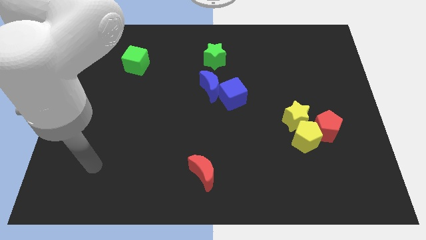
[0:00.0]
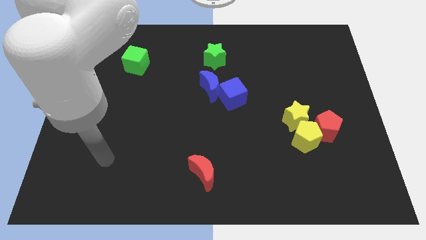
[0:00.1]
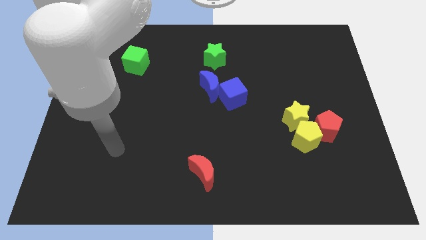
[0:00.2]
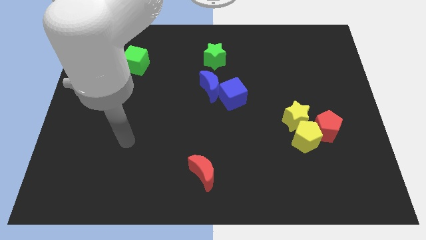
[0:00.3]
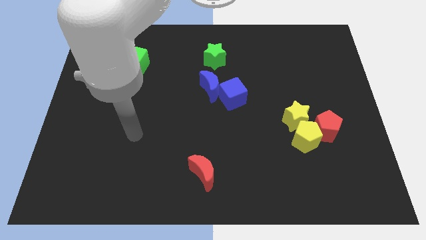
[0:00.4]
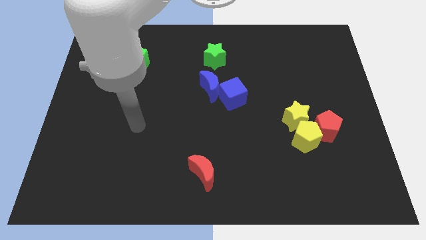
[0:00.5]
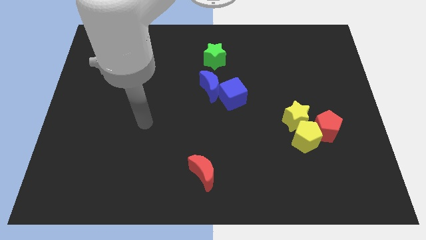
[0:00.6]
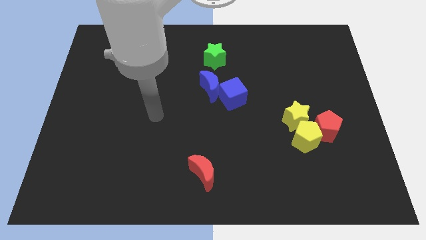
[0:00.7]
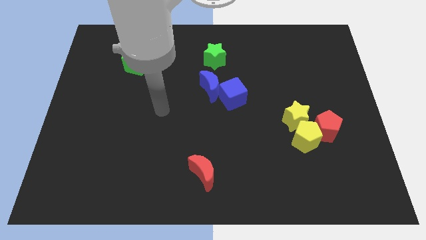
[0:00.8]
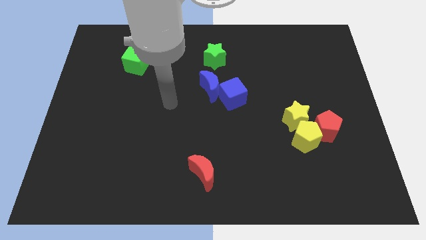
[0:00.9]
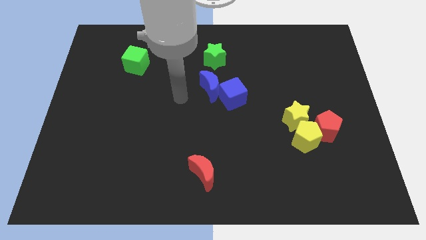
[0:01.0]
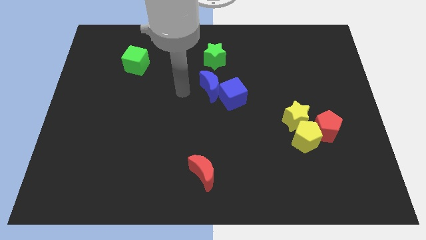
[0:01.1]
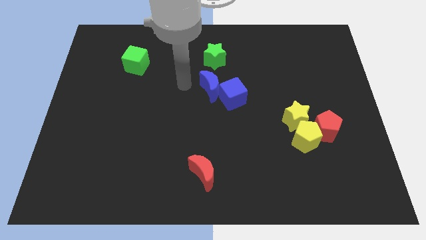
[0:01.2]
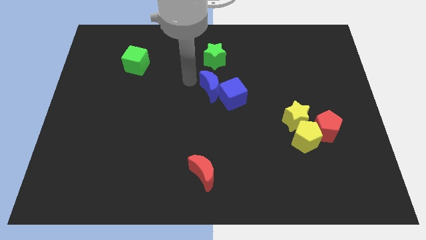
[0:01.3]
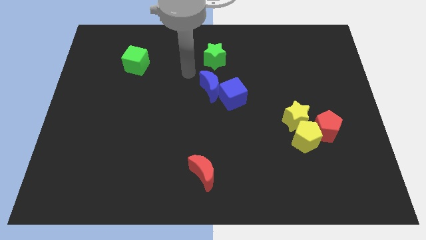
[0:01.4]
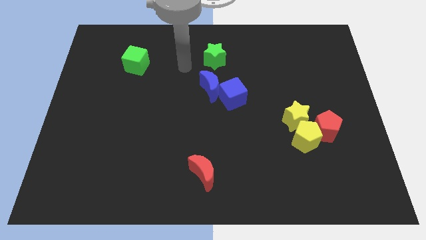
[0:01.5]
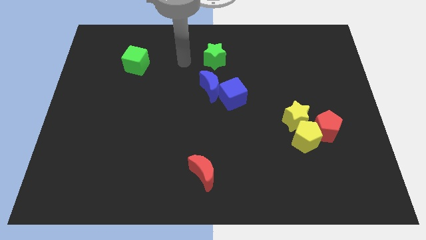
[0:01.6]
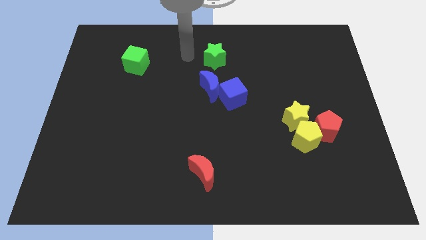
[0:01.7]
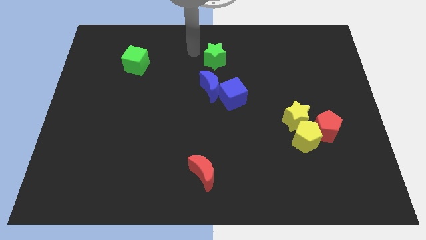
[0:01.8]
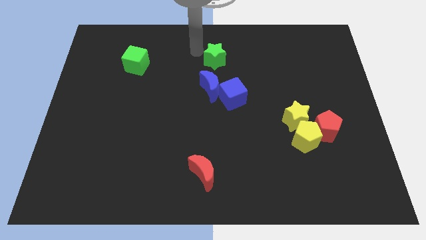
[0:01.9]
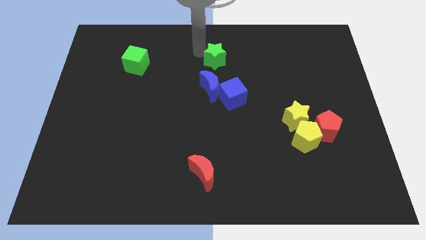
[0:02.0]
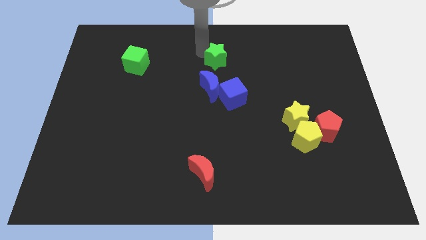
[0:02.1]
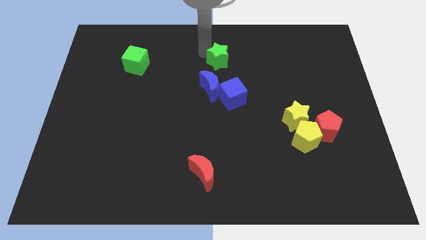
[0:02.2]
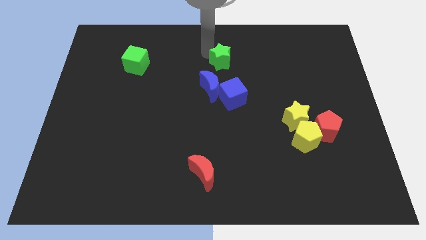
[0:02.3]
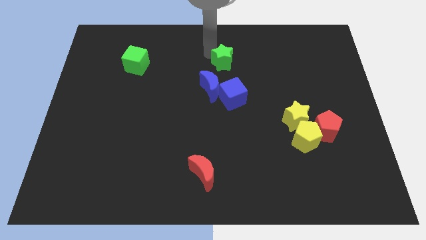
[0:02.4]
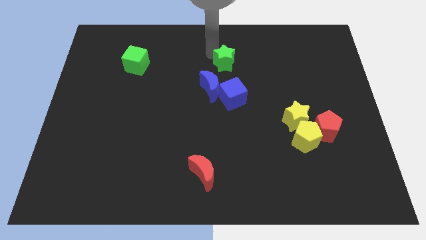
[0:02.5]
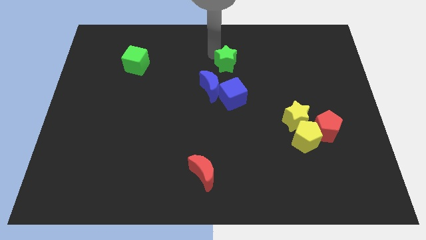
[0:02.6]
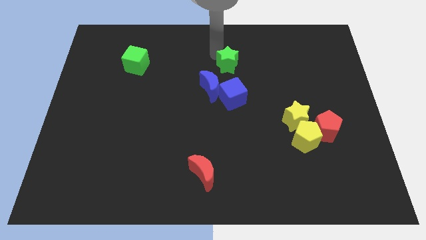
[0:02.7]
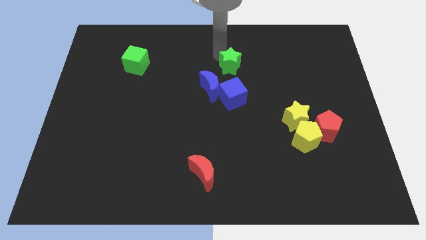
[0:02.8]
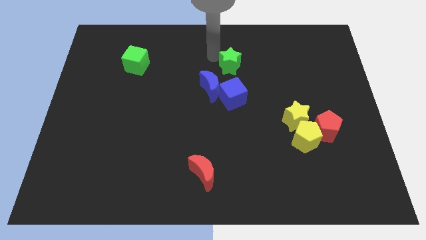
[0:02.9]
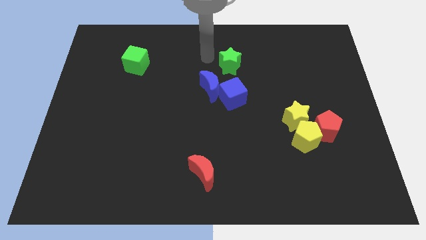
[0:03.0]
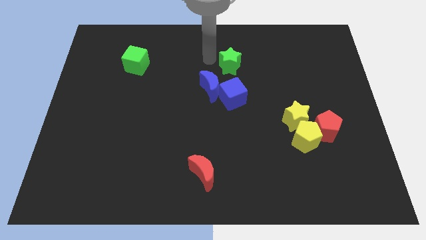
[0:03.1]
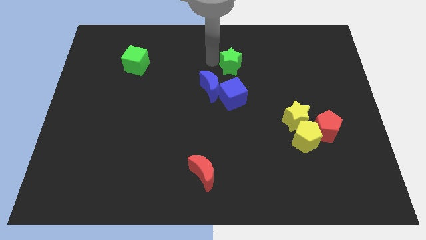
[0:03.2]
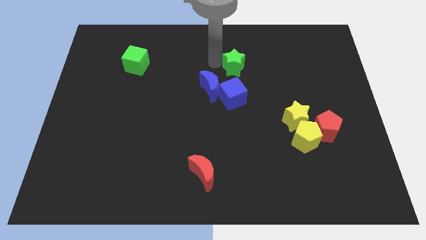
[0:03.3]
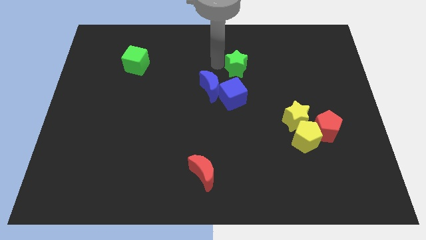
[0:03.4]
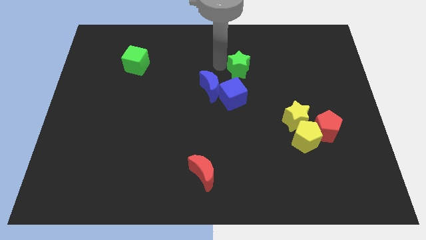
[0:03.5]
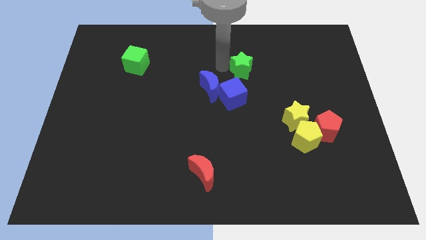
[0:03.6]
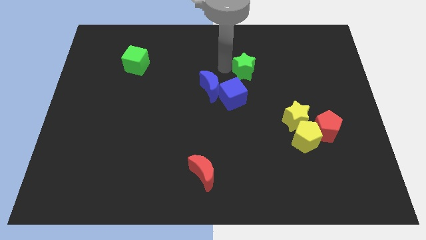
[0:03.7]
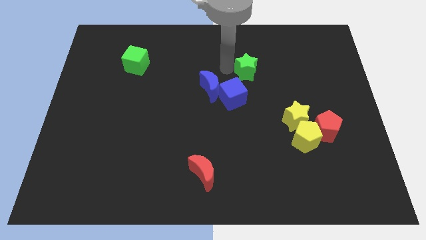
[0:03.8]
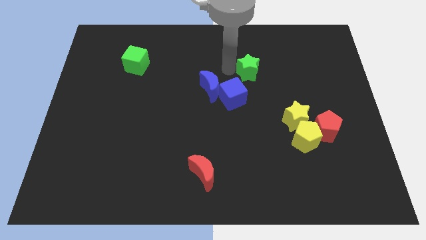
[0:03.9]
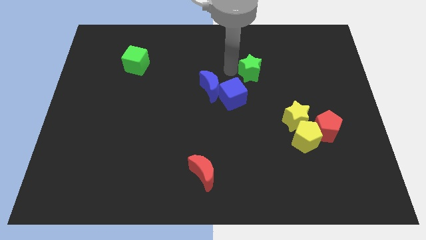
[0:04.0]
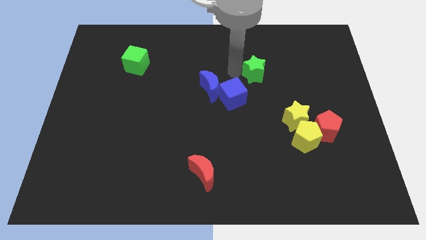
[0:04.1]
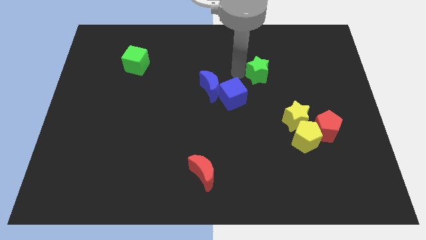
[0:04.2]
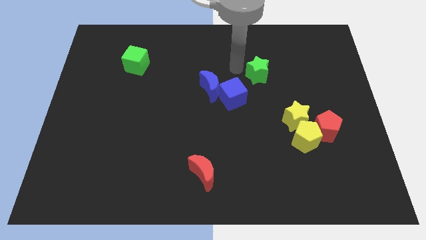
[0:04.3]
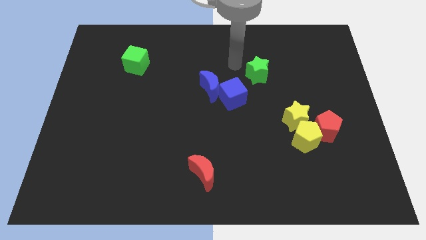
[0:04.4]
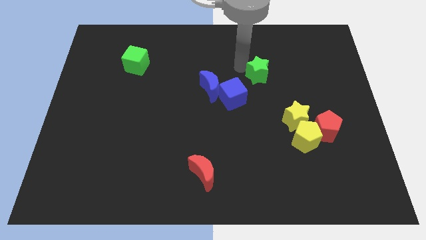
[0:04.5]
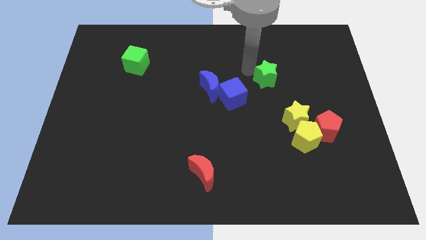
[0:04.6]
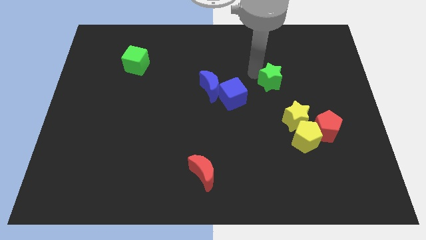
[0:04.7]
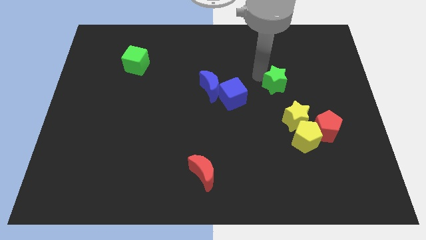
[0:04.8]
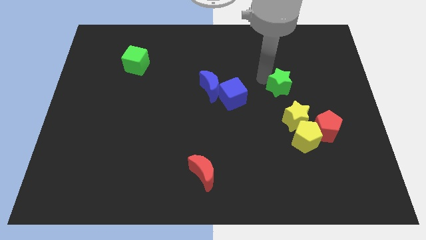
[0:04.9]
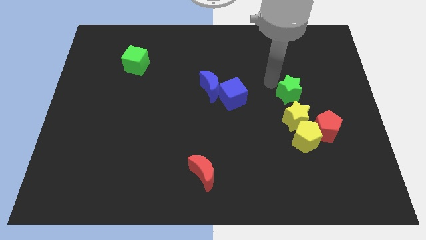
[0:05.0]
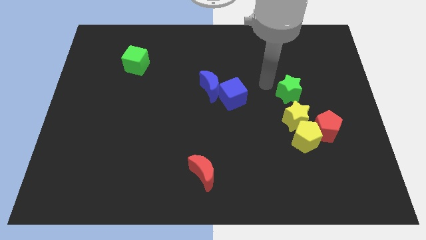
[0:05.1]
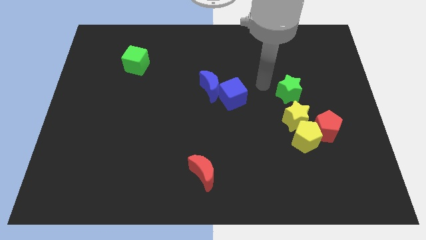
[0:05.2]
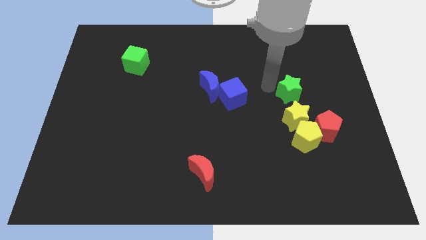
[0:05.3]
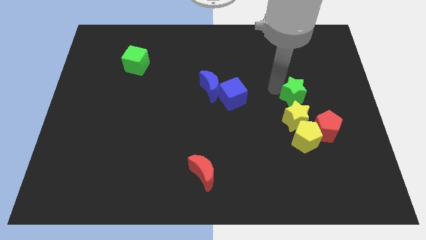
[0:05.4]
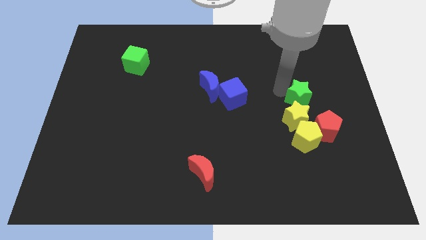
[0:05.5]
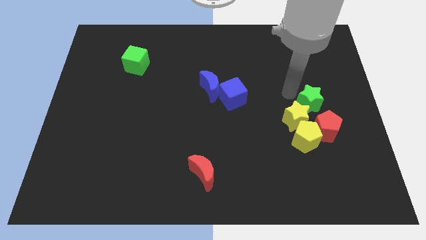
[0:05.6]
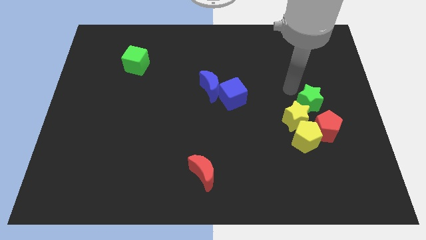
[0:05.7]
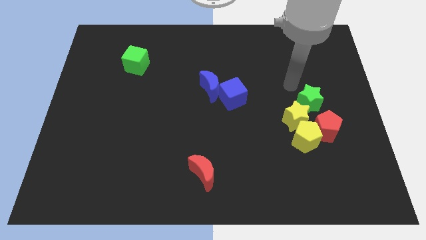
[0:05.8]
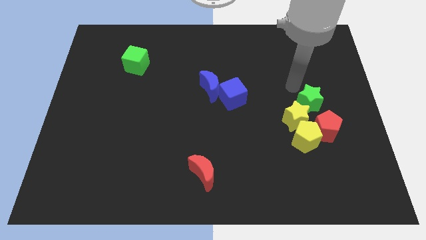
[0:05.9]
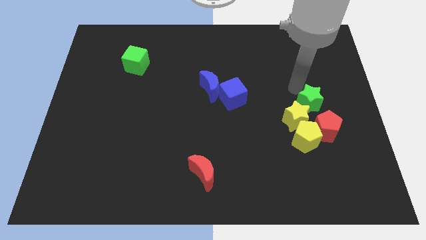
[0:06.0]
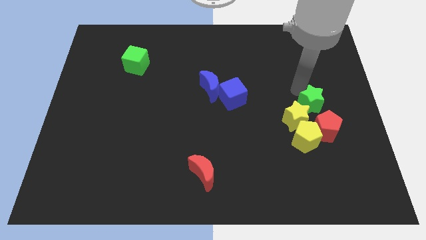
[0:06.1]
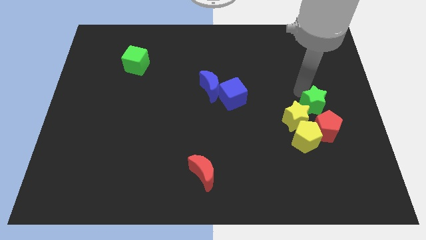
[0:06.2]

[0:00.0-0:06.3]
push the green star to the top right side of the yellow pentagon

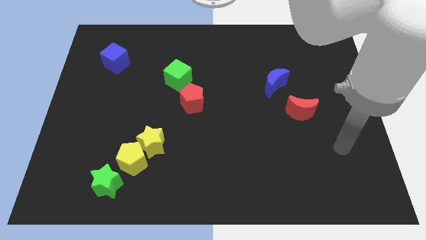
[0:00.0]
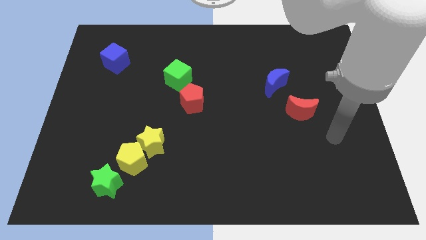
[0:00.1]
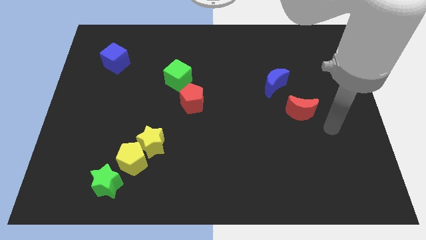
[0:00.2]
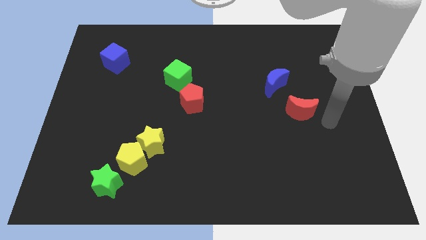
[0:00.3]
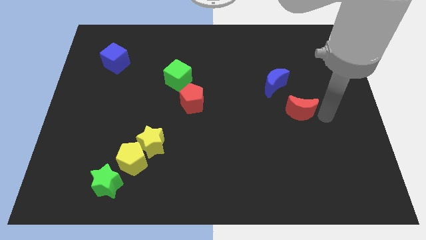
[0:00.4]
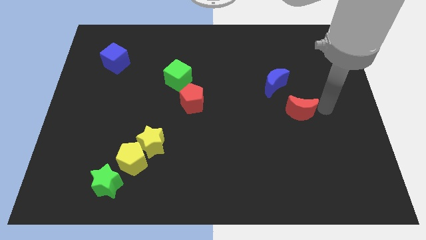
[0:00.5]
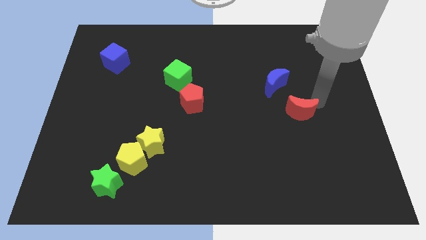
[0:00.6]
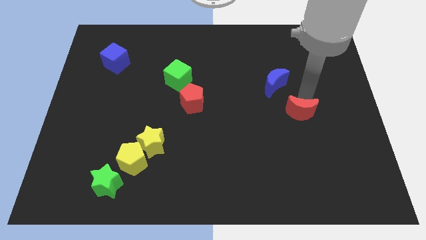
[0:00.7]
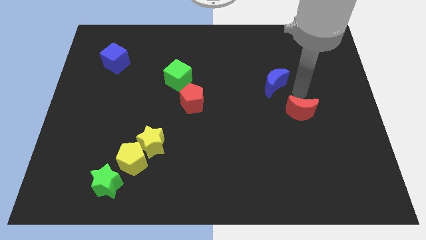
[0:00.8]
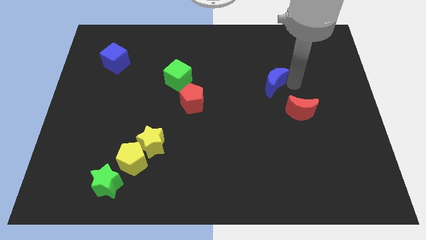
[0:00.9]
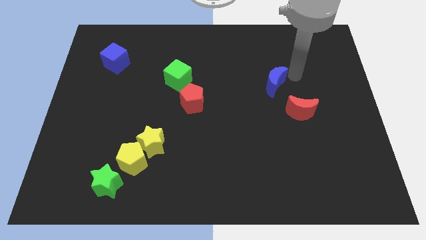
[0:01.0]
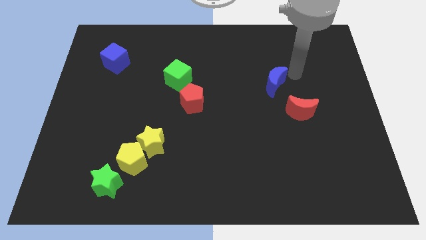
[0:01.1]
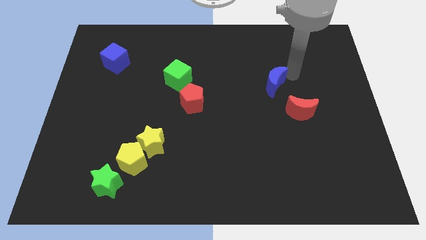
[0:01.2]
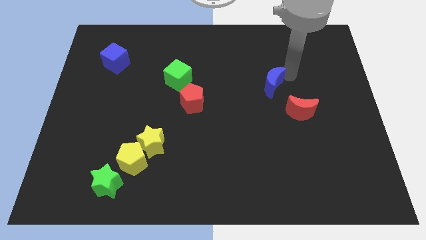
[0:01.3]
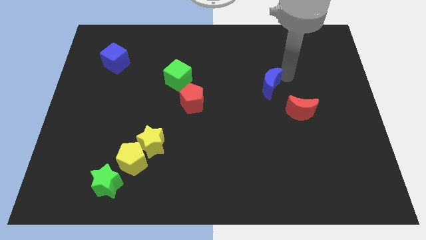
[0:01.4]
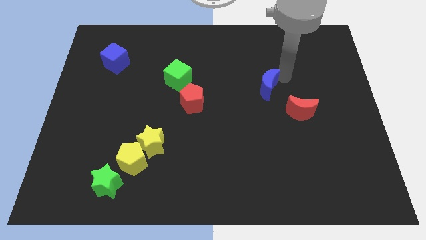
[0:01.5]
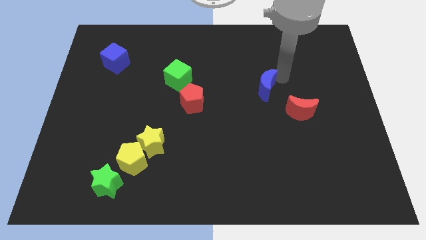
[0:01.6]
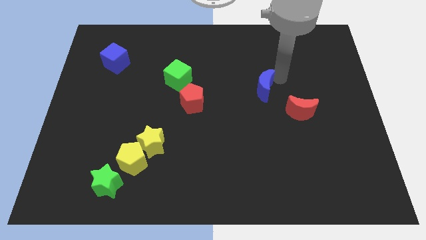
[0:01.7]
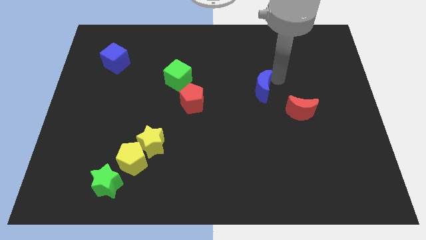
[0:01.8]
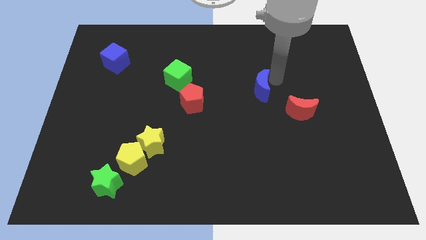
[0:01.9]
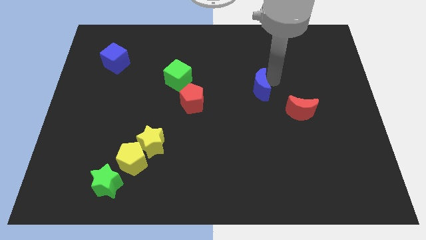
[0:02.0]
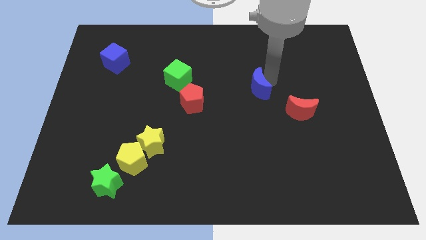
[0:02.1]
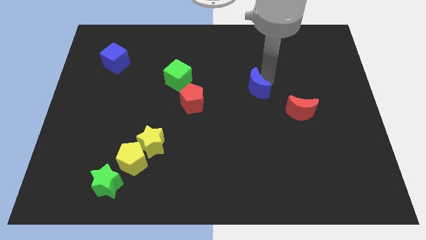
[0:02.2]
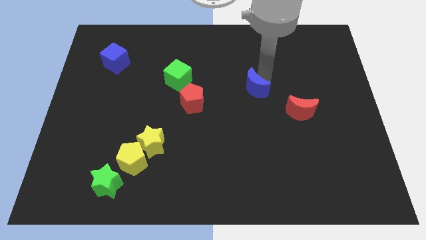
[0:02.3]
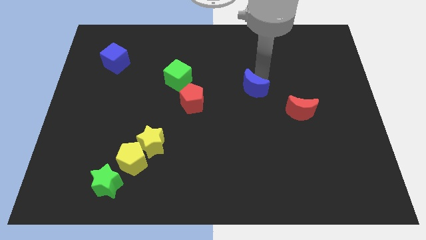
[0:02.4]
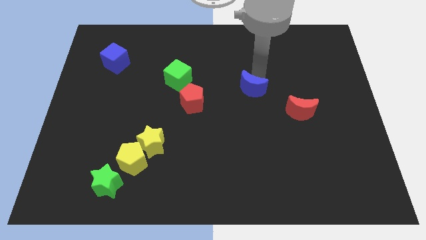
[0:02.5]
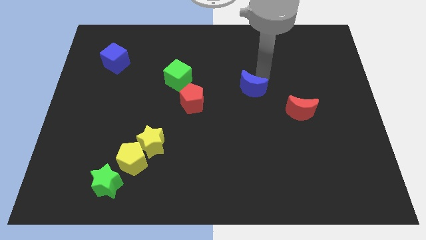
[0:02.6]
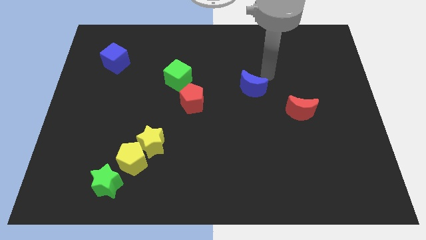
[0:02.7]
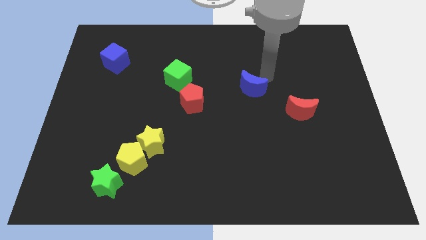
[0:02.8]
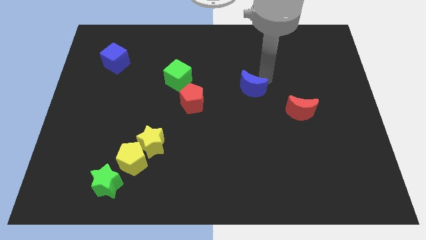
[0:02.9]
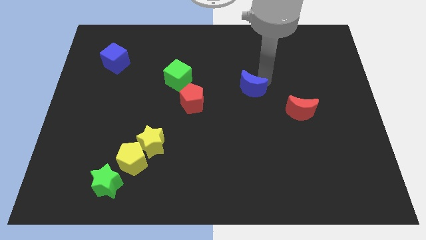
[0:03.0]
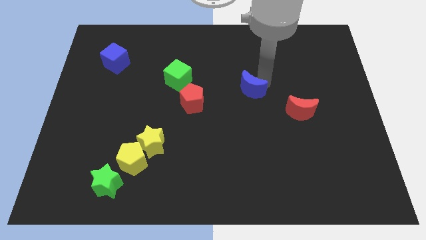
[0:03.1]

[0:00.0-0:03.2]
slide the blue moon to the right side of the red pentagon
